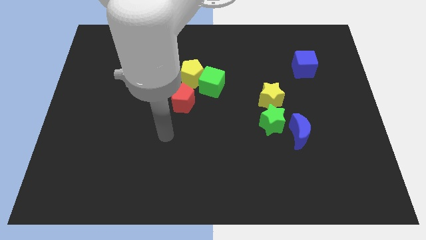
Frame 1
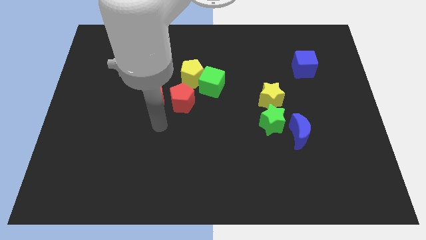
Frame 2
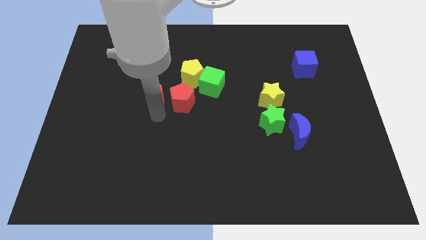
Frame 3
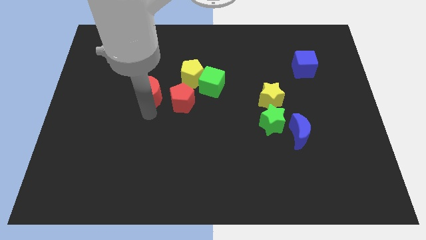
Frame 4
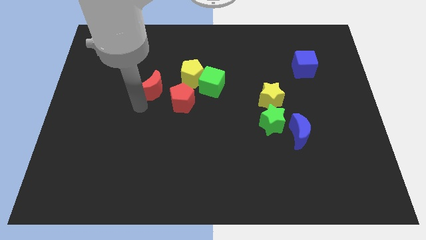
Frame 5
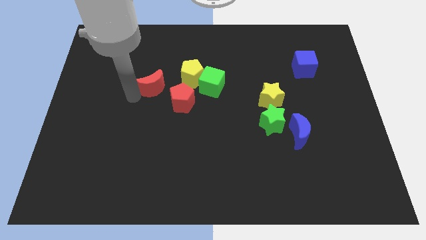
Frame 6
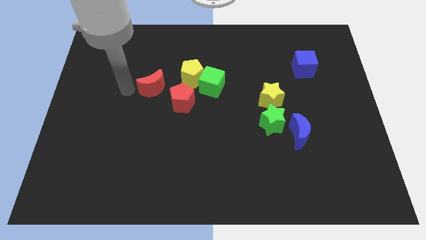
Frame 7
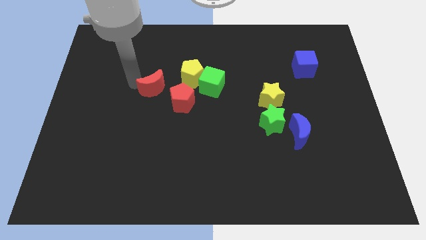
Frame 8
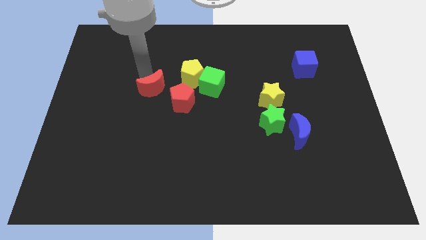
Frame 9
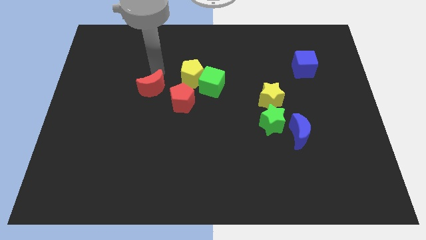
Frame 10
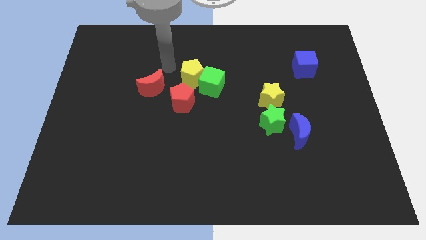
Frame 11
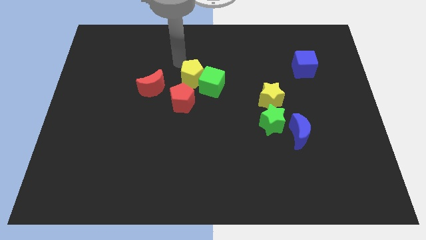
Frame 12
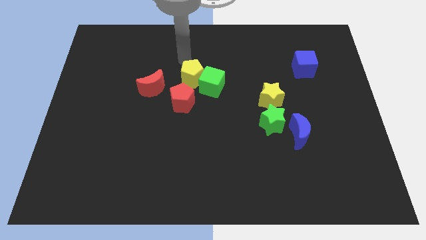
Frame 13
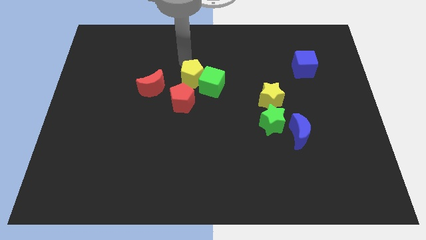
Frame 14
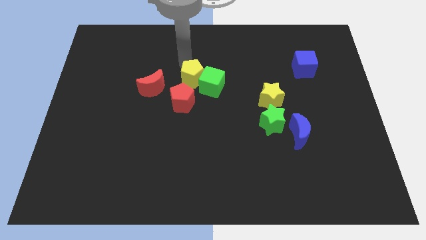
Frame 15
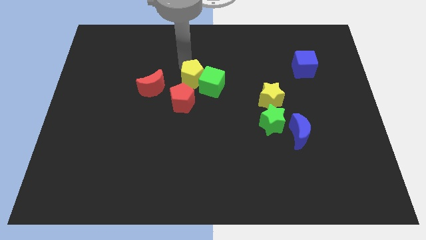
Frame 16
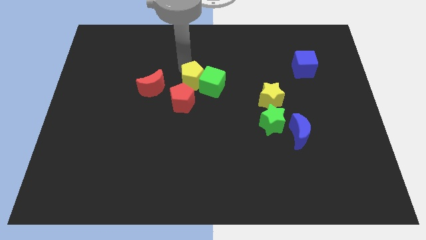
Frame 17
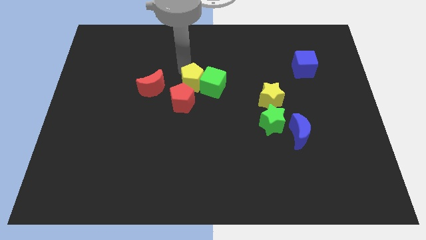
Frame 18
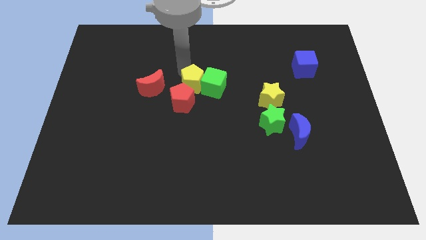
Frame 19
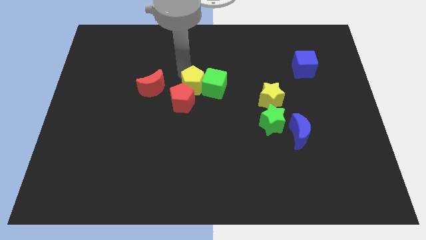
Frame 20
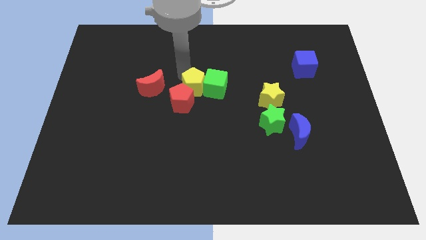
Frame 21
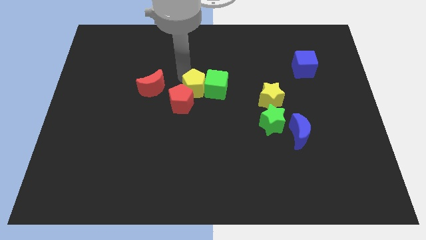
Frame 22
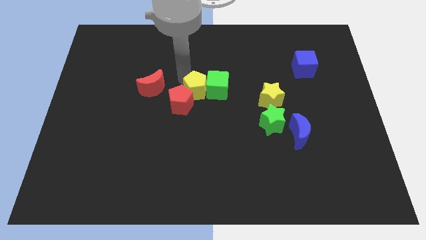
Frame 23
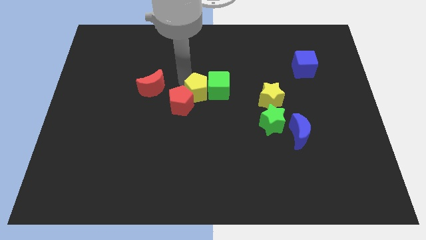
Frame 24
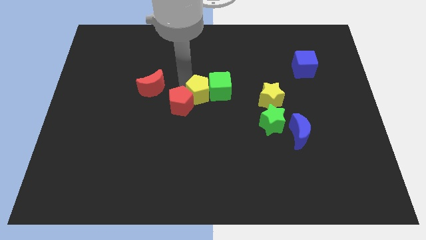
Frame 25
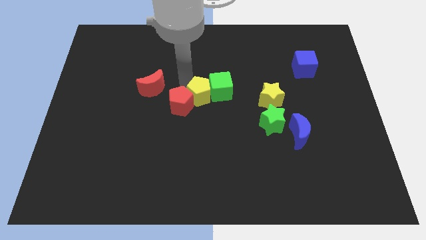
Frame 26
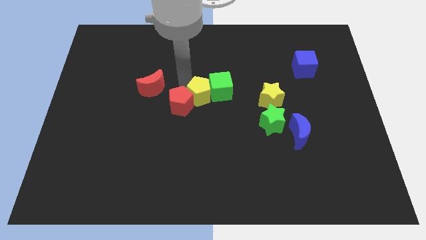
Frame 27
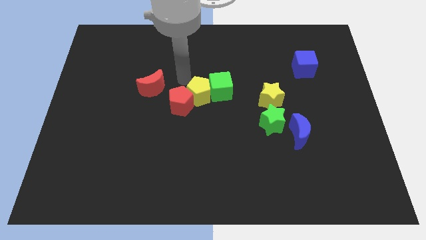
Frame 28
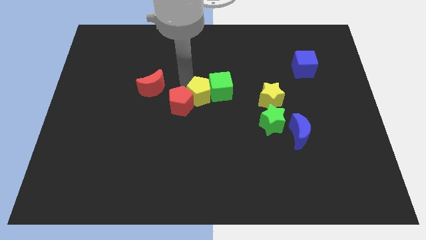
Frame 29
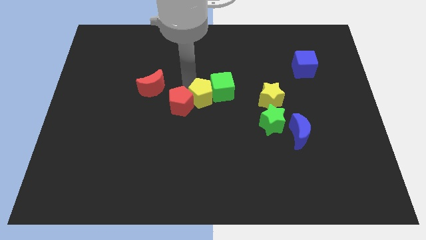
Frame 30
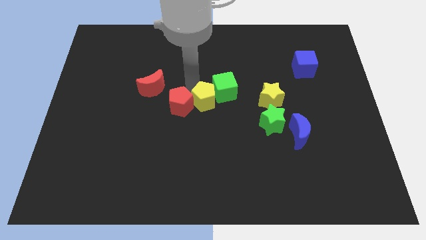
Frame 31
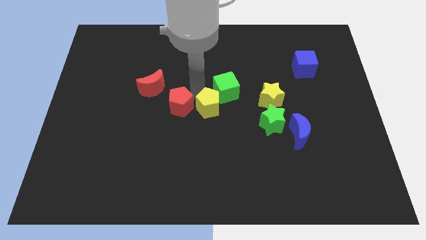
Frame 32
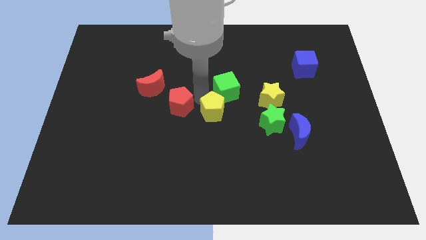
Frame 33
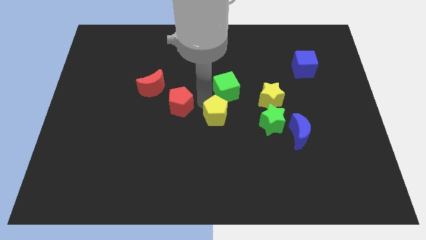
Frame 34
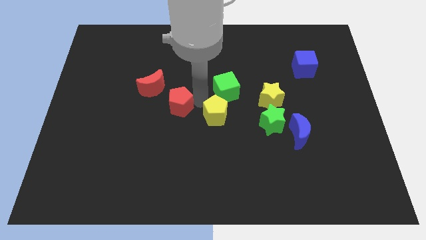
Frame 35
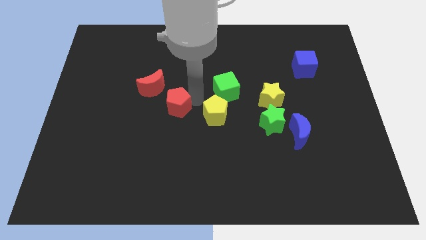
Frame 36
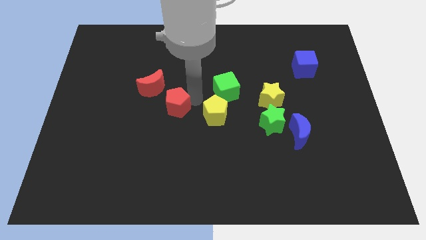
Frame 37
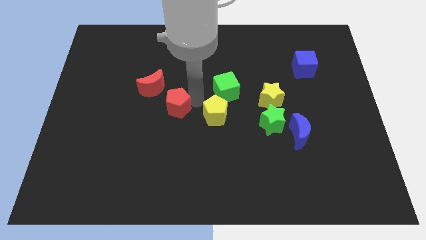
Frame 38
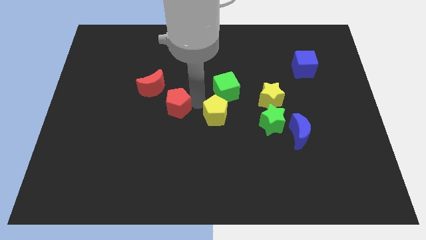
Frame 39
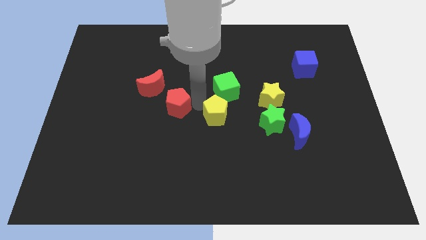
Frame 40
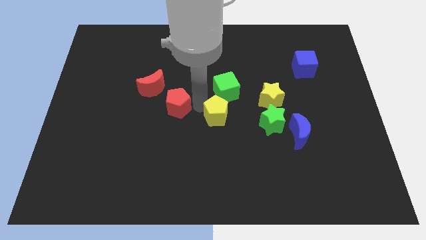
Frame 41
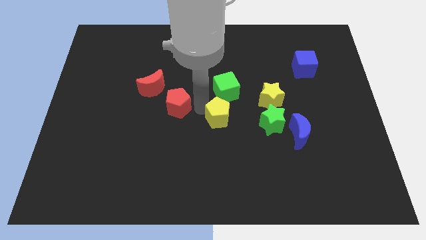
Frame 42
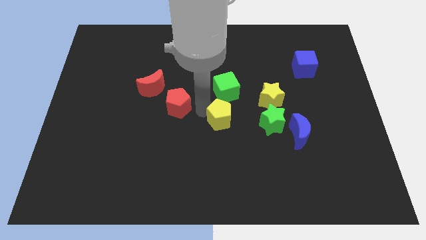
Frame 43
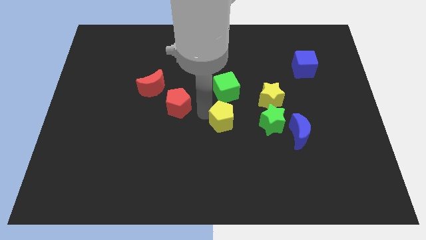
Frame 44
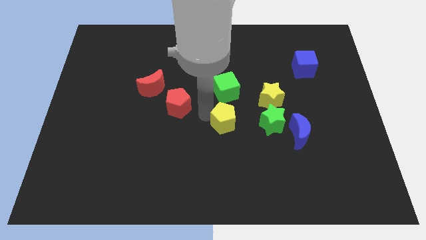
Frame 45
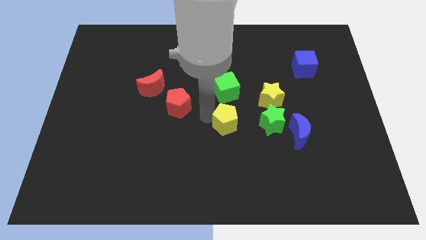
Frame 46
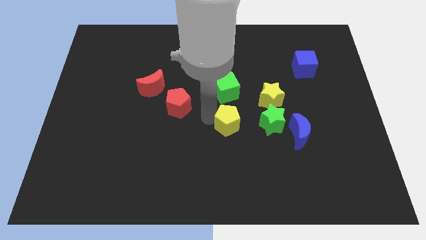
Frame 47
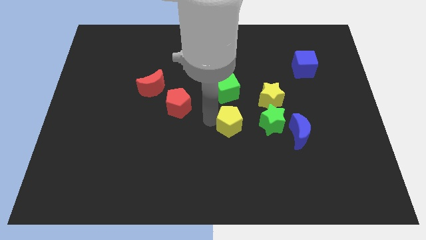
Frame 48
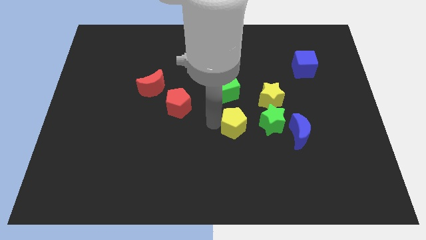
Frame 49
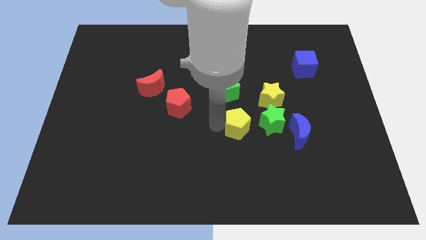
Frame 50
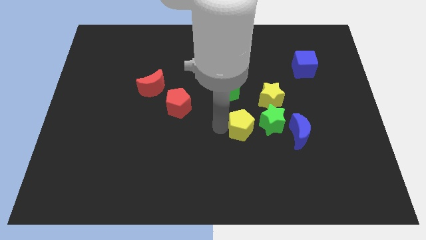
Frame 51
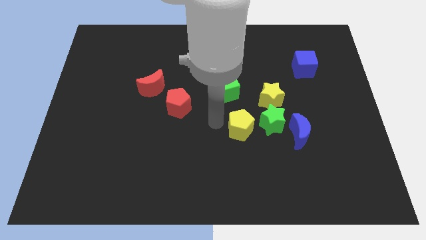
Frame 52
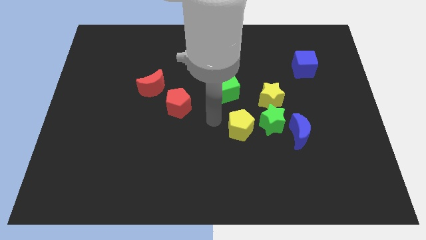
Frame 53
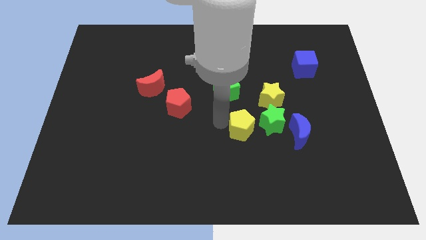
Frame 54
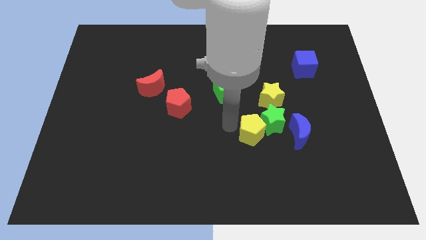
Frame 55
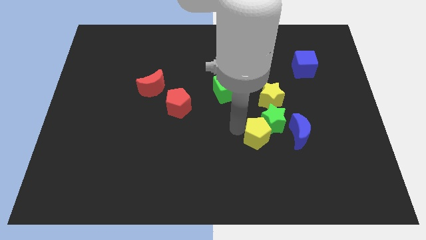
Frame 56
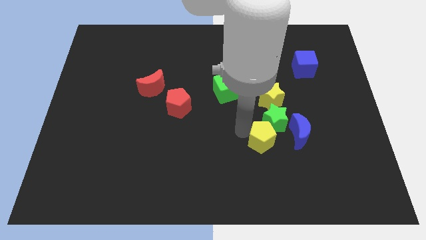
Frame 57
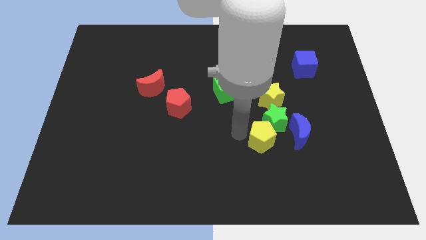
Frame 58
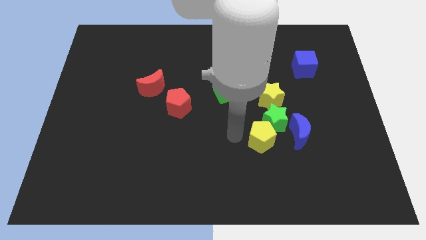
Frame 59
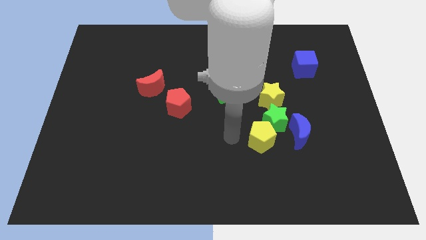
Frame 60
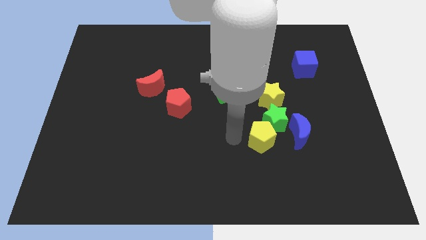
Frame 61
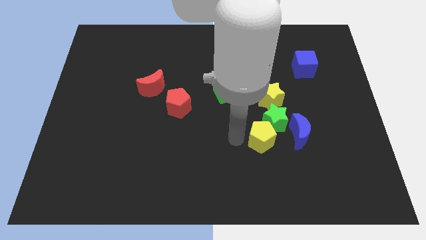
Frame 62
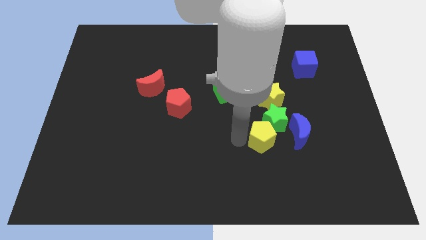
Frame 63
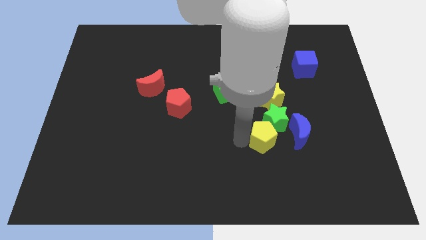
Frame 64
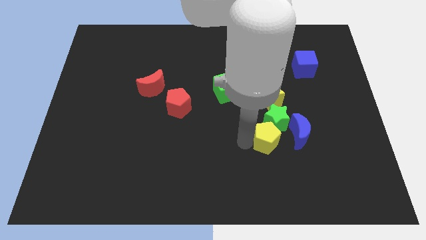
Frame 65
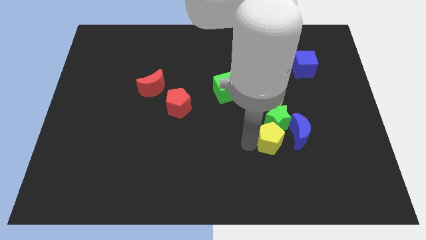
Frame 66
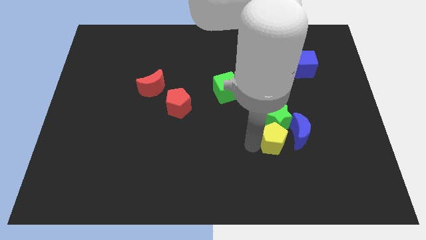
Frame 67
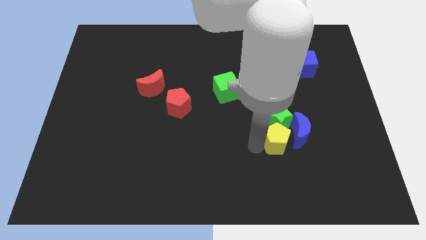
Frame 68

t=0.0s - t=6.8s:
slide the yellow pentagon next to the blue moon
